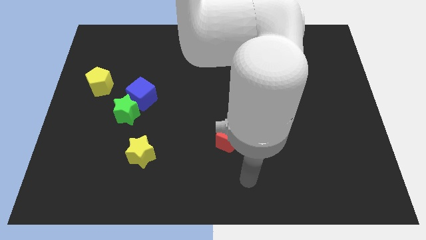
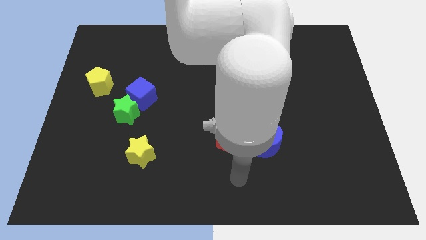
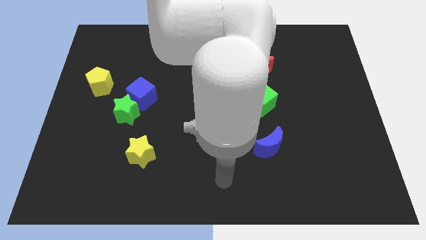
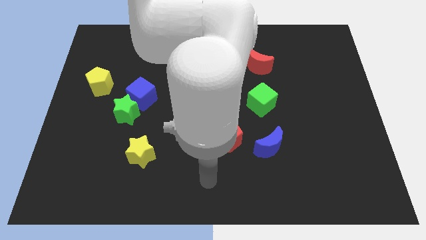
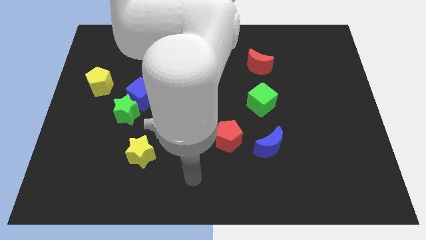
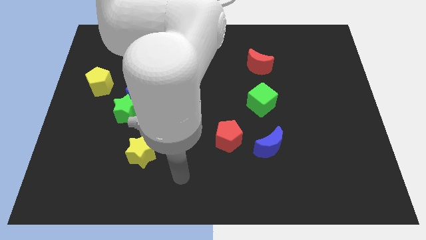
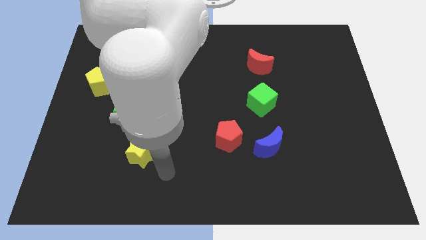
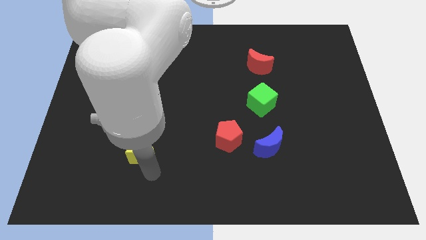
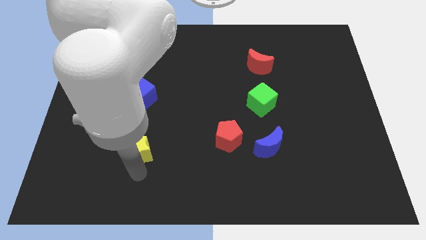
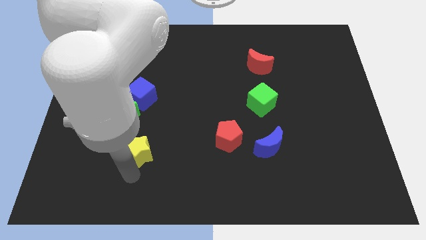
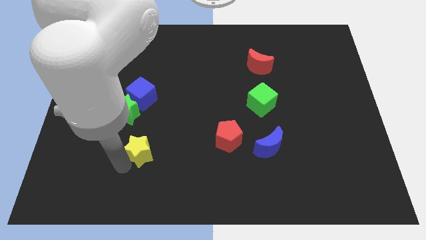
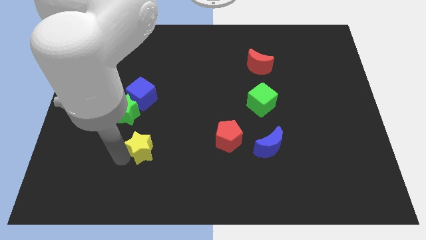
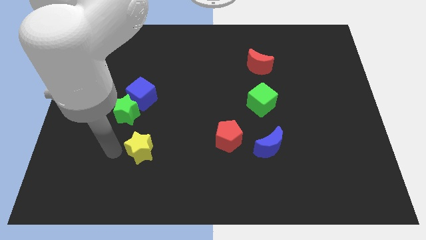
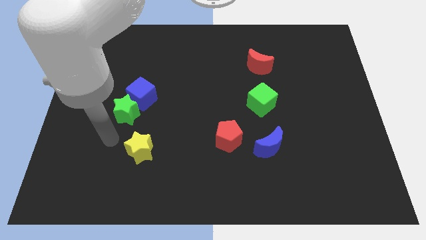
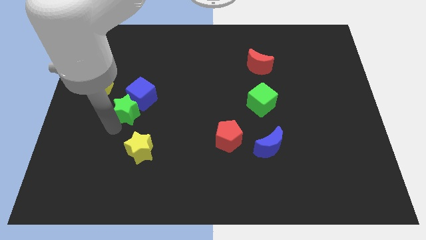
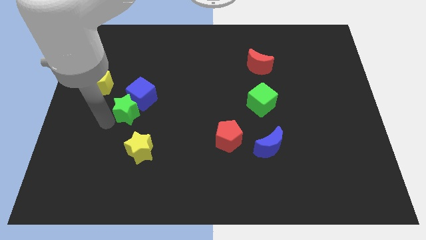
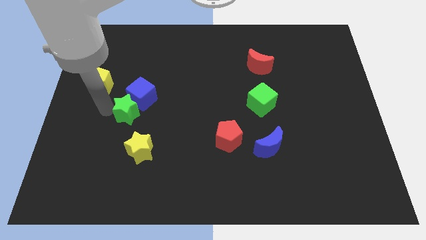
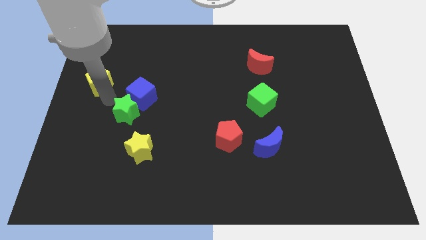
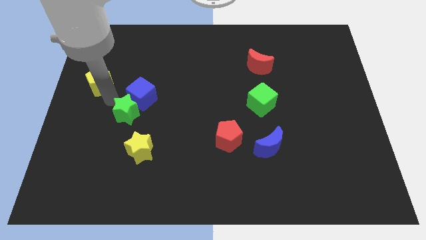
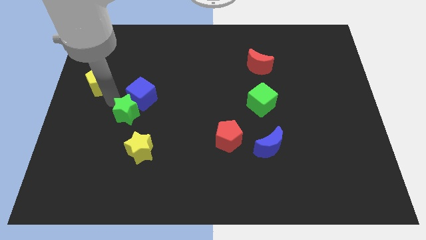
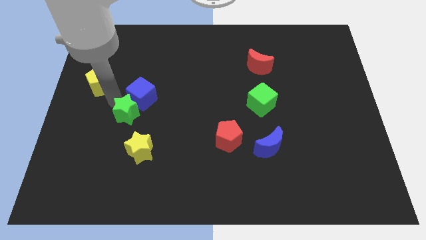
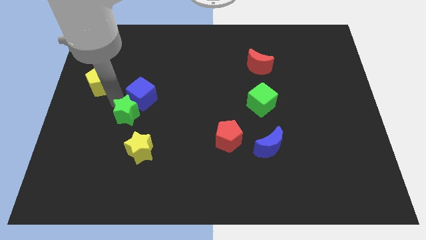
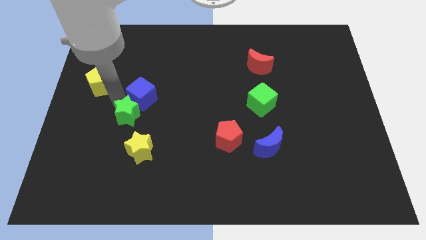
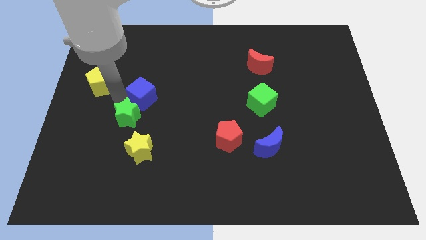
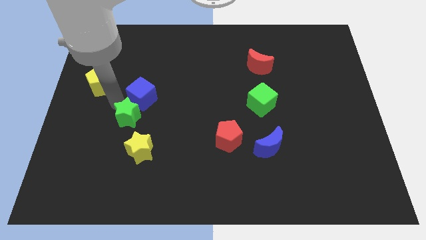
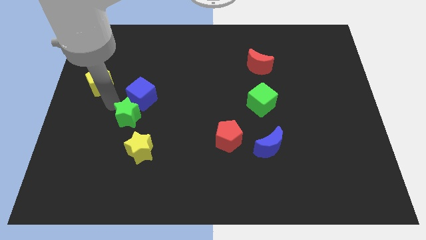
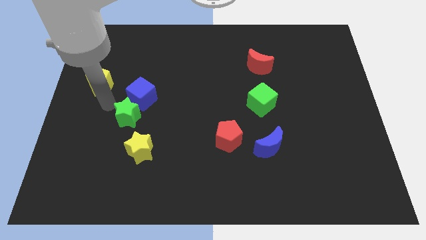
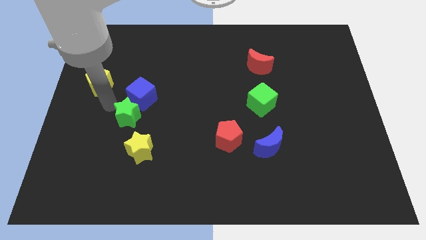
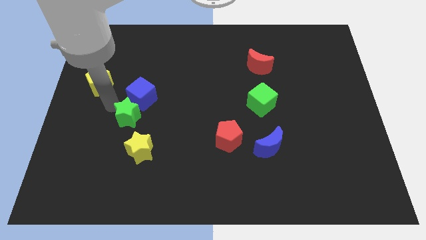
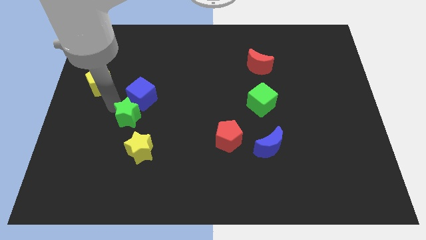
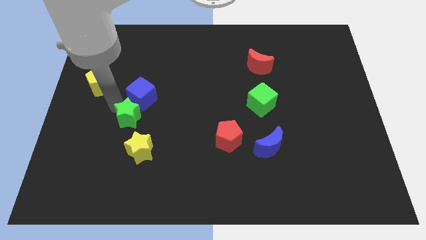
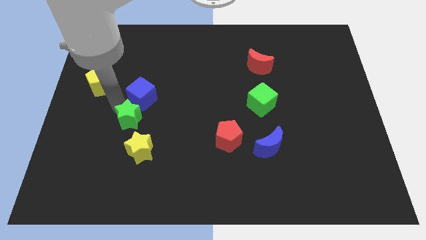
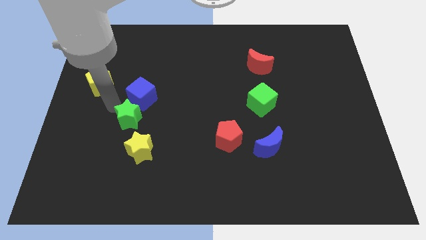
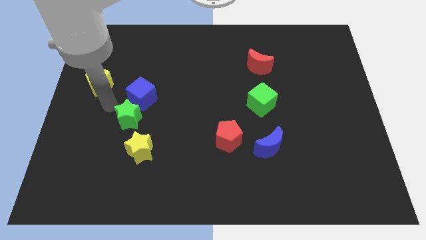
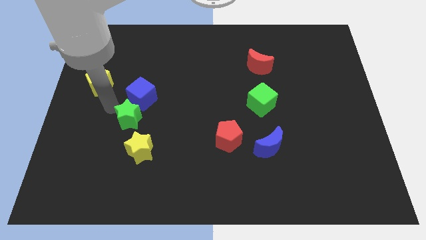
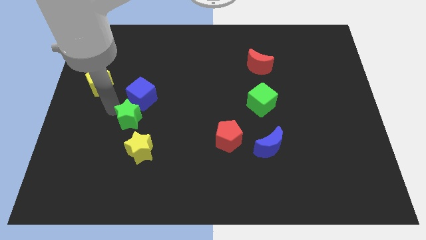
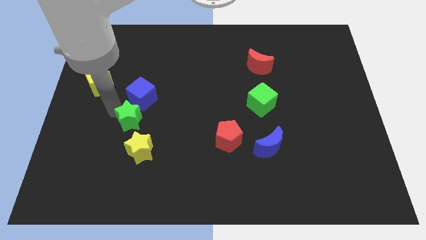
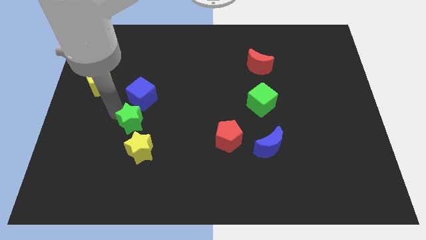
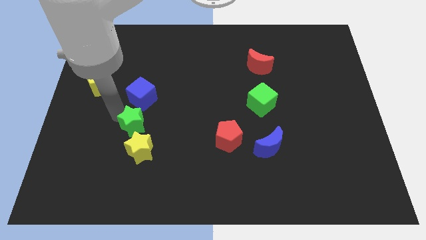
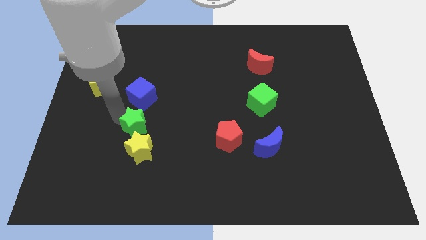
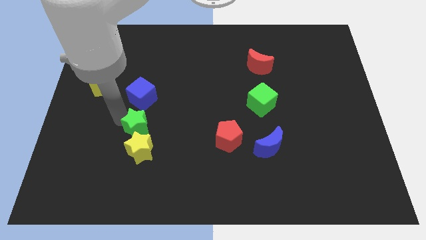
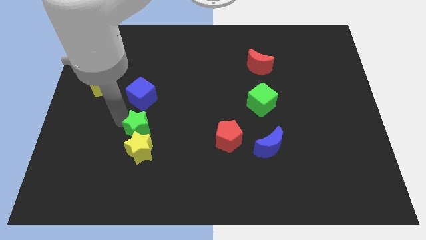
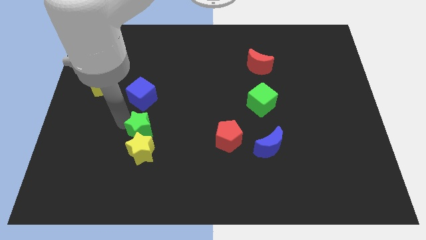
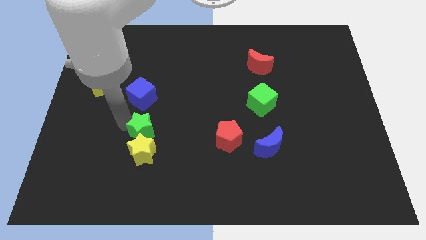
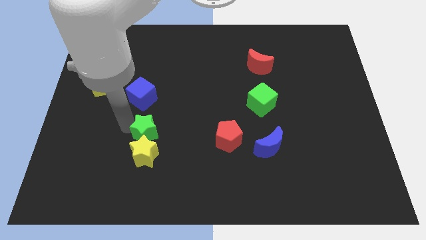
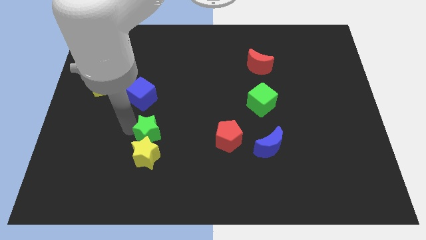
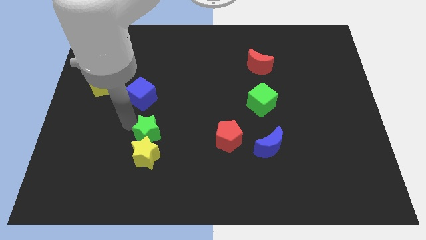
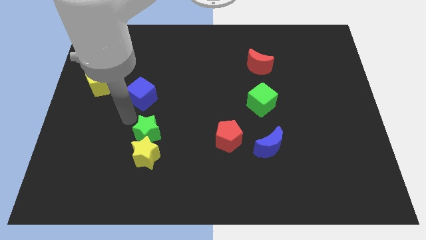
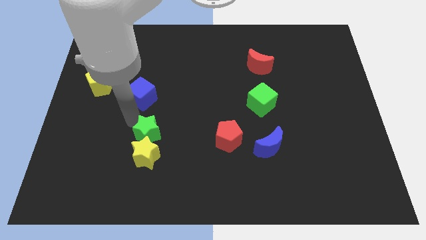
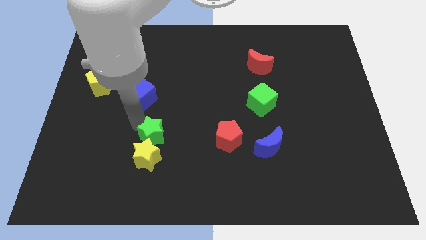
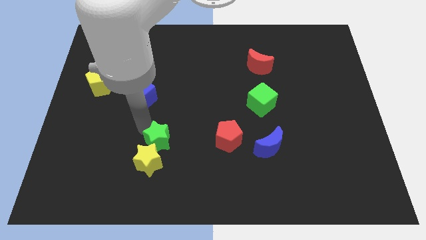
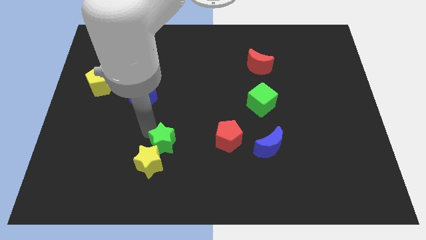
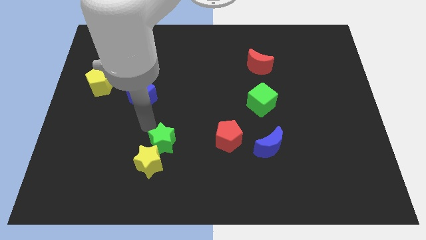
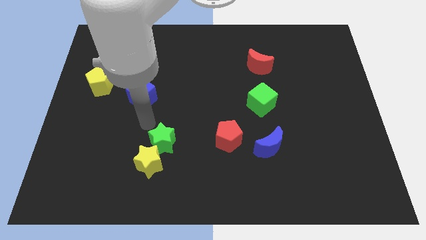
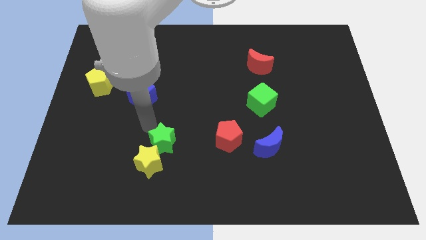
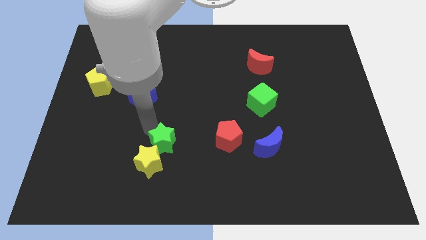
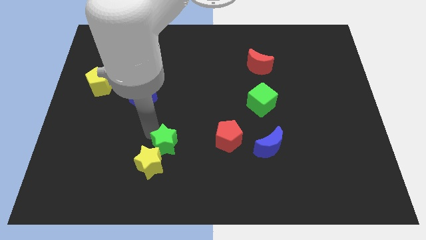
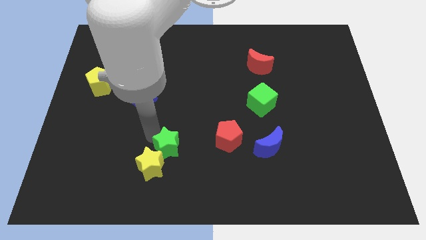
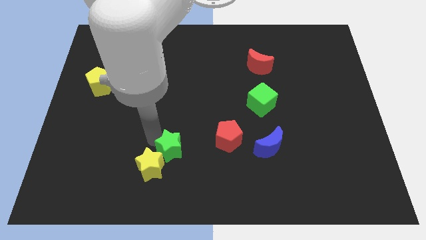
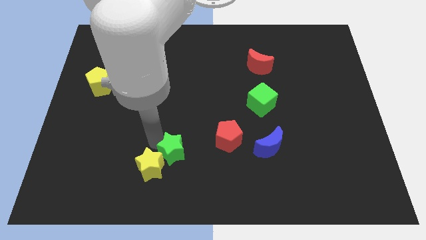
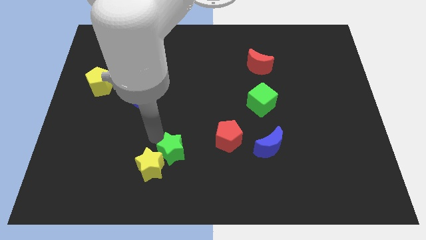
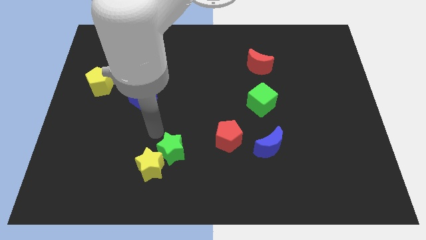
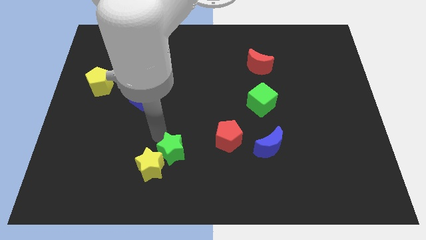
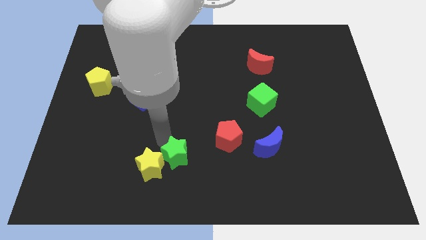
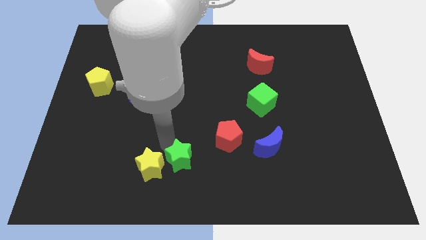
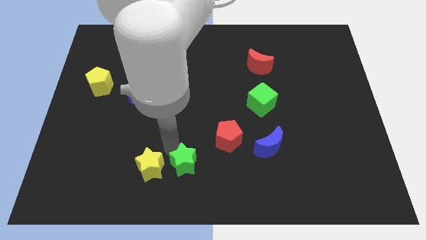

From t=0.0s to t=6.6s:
push the green star to the bottom
